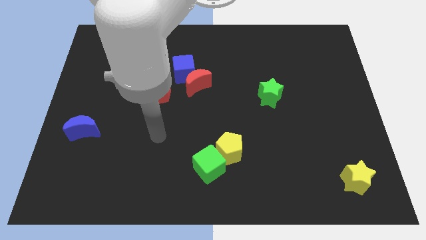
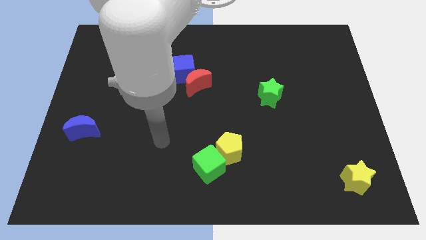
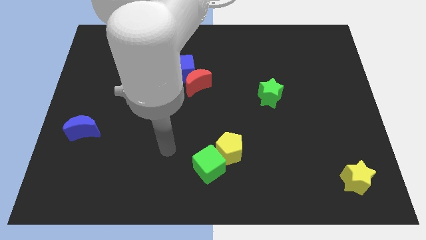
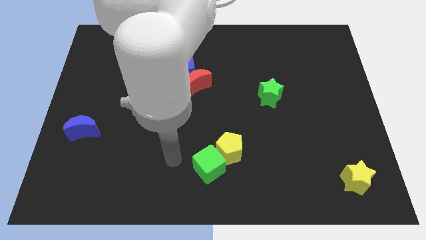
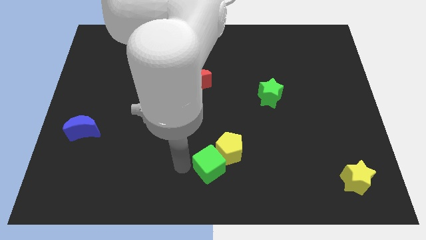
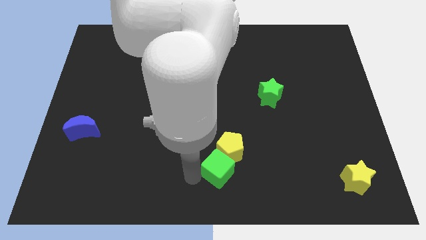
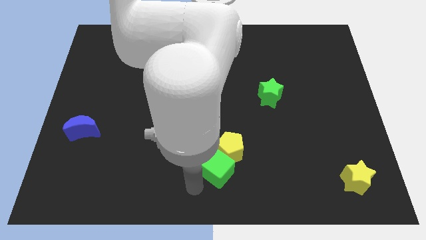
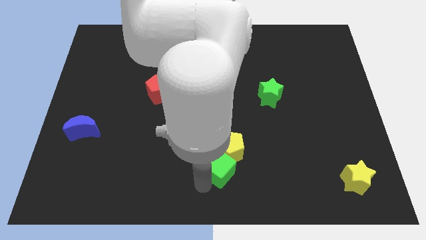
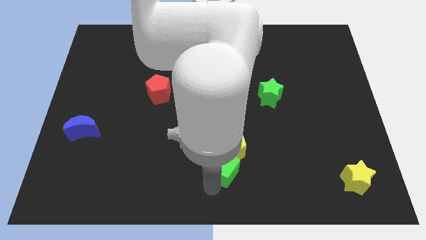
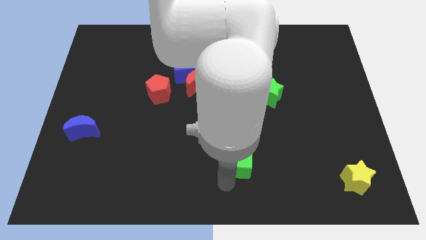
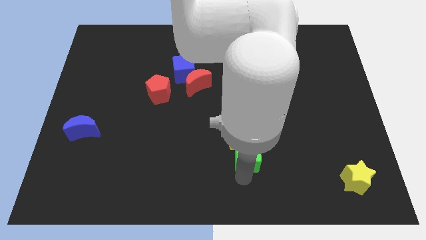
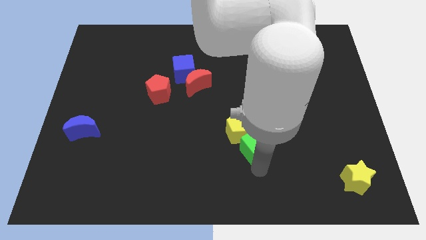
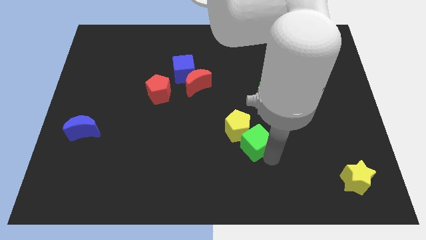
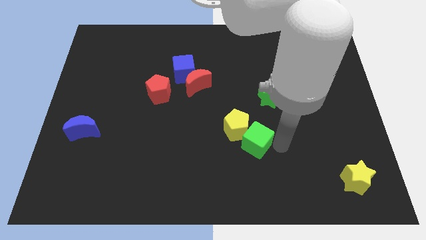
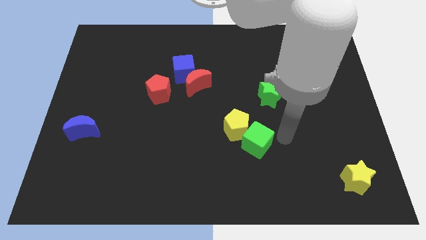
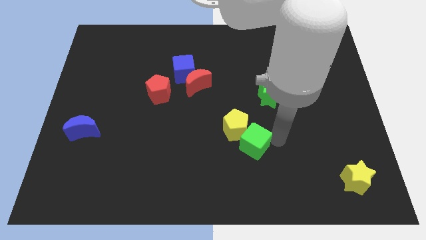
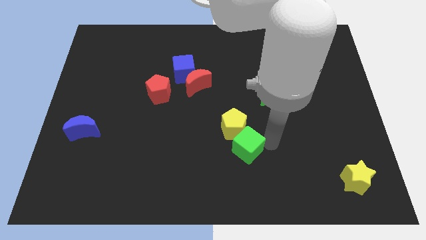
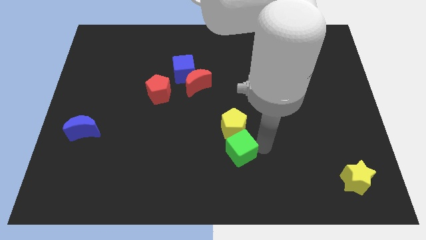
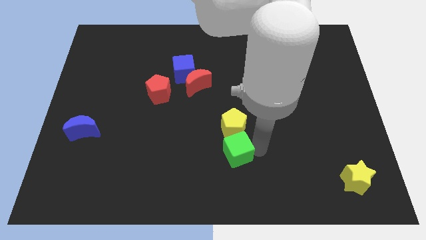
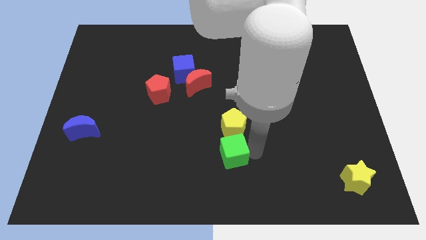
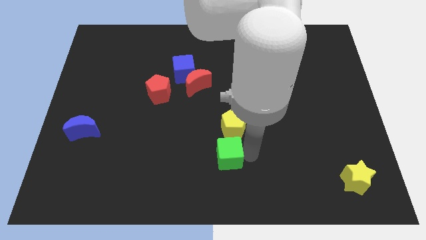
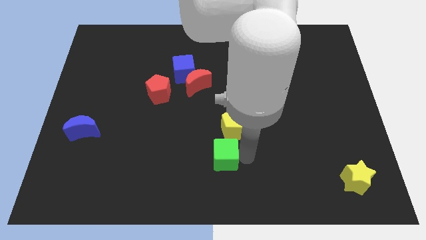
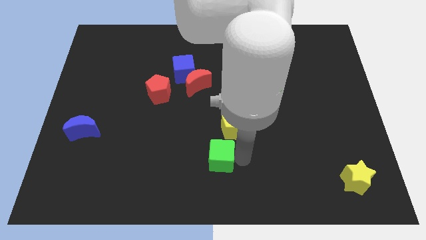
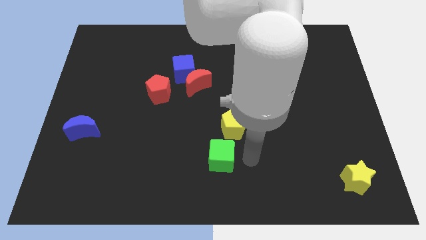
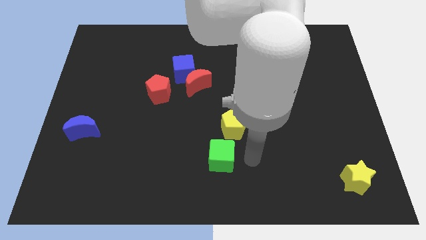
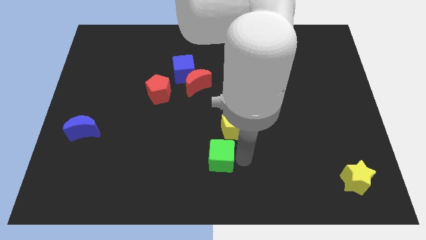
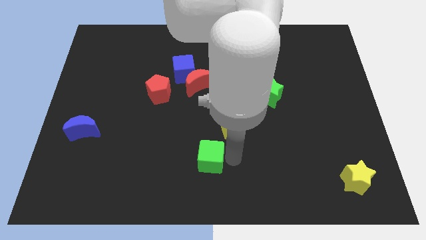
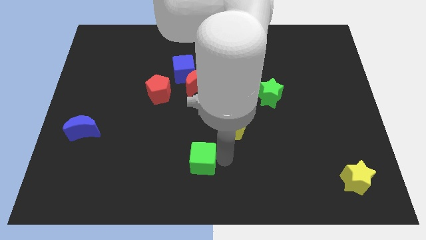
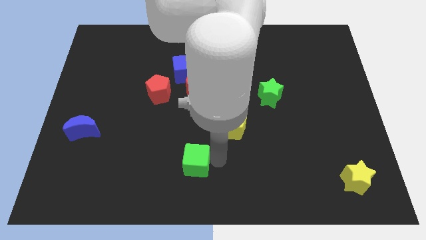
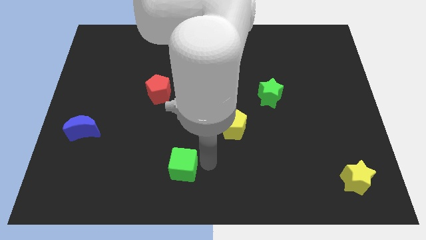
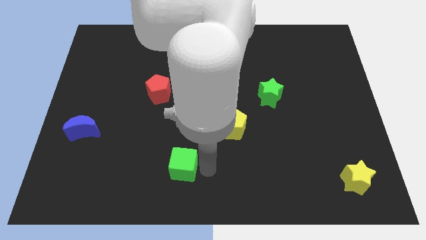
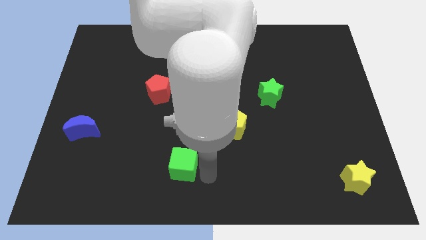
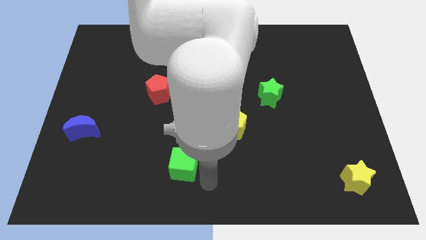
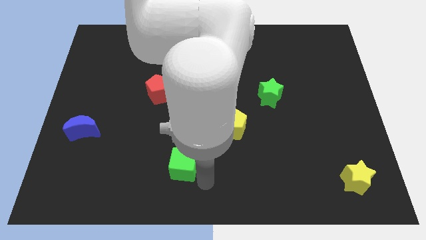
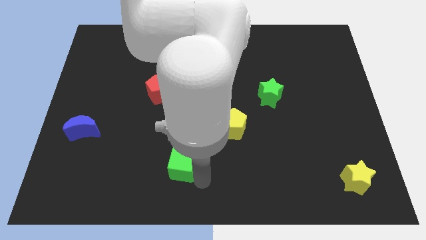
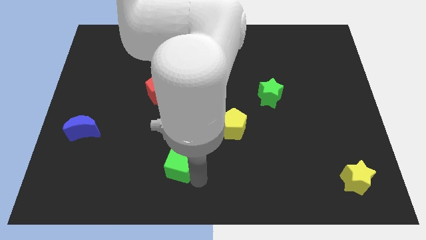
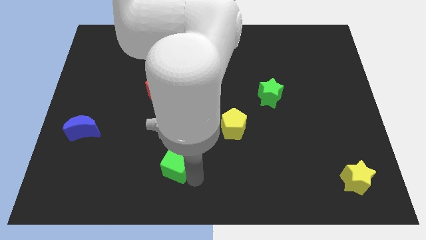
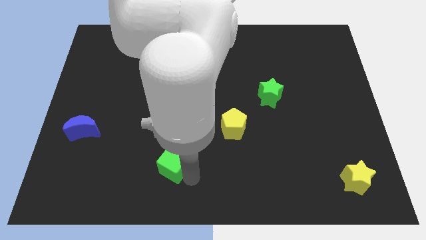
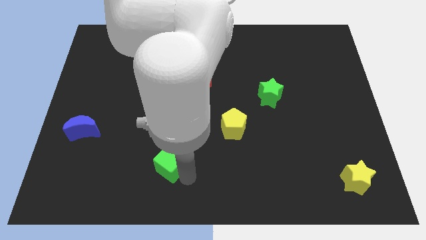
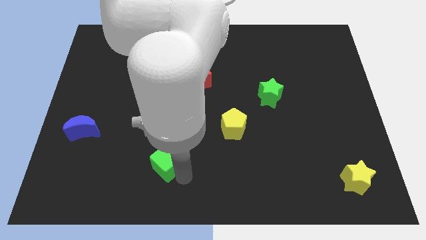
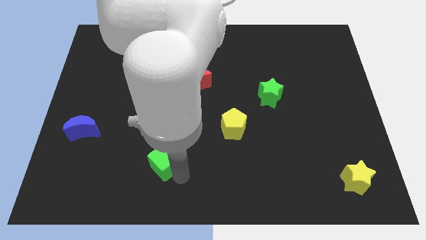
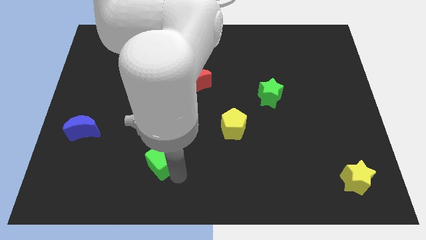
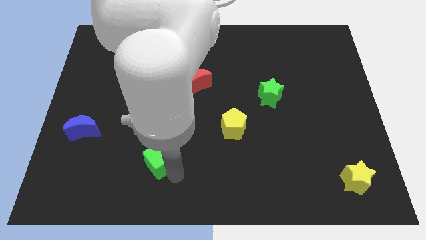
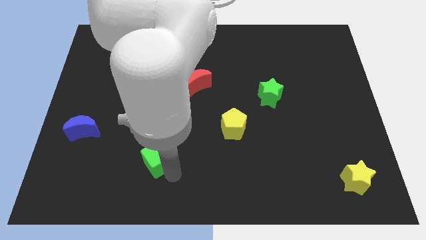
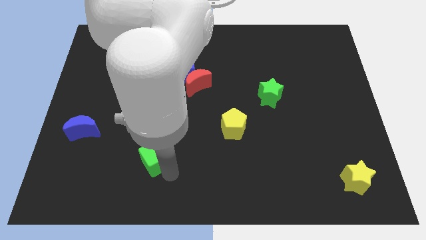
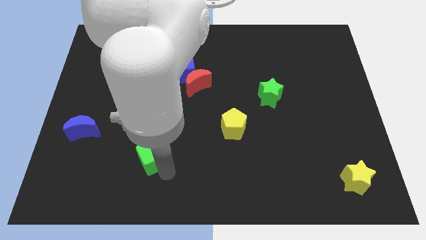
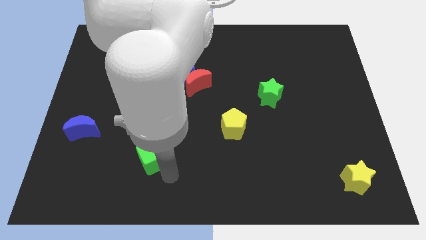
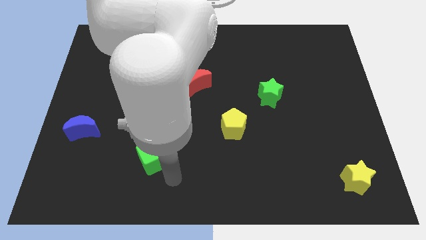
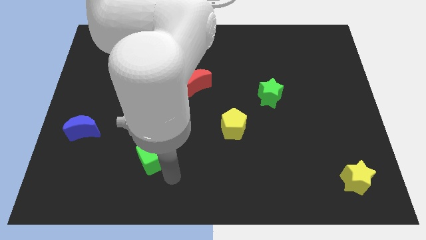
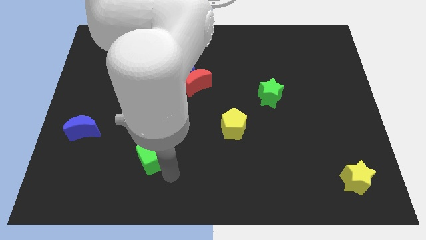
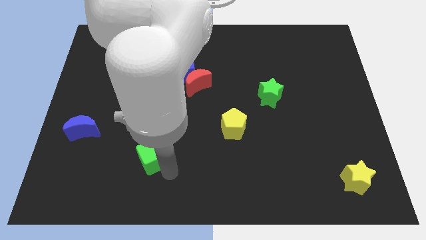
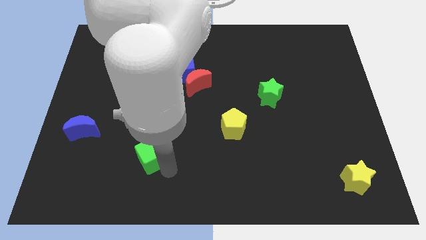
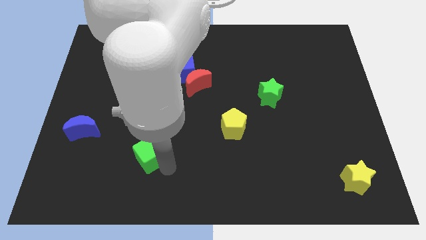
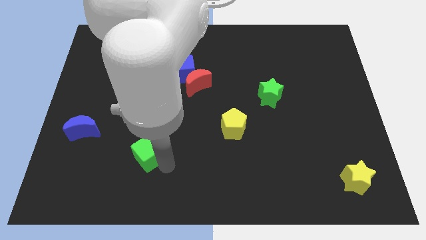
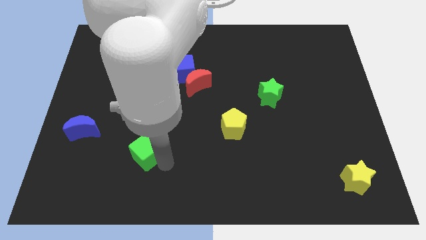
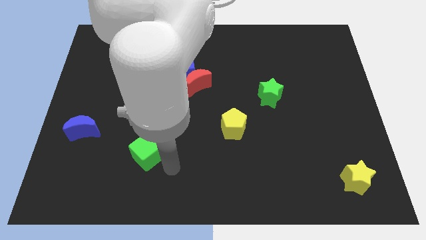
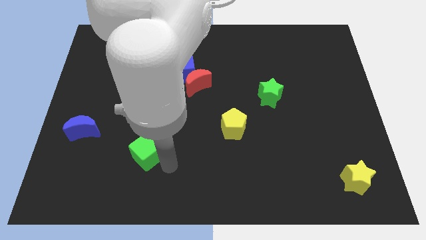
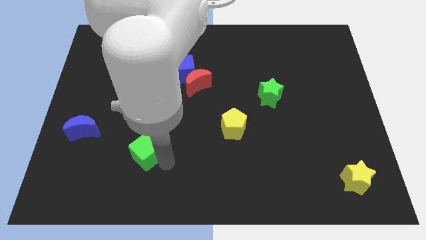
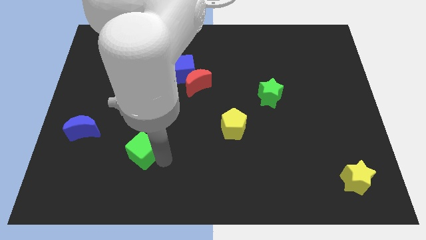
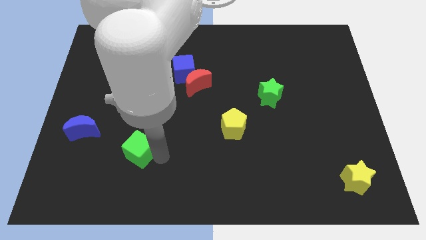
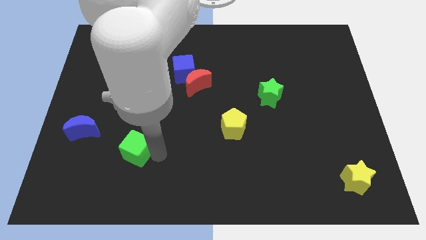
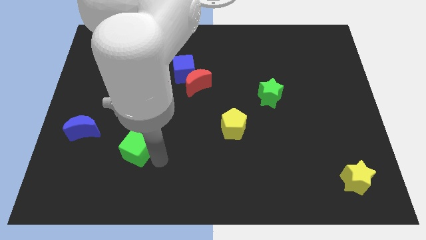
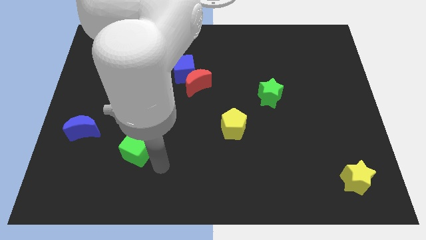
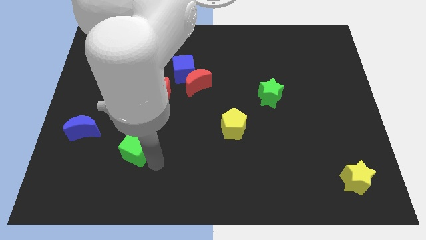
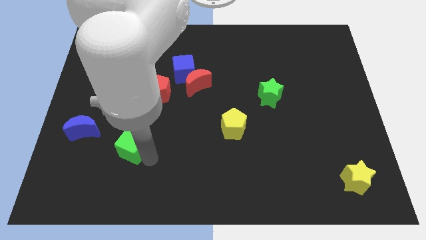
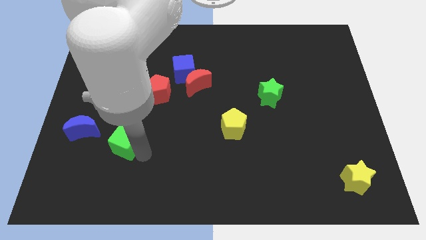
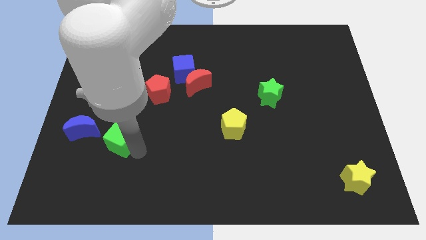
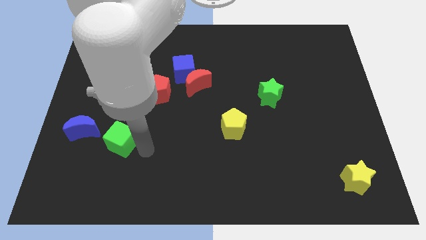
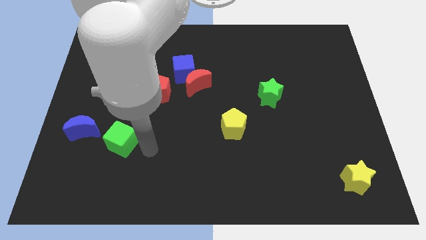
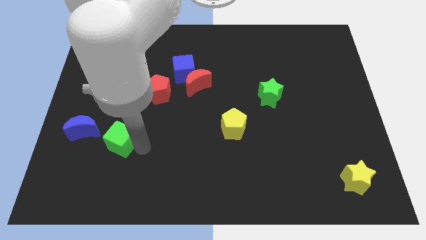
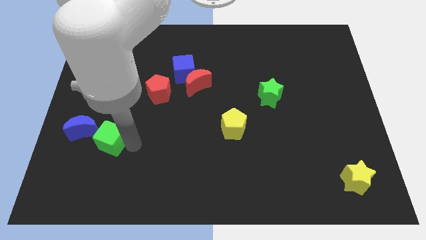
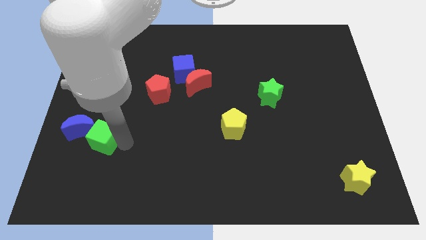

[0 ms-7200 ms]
put the green cube to the blue moon

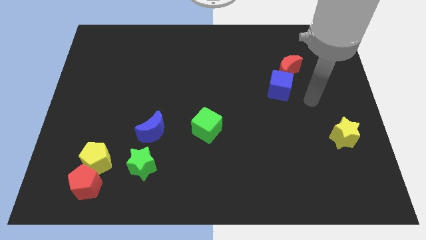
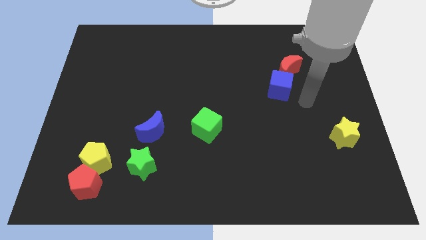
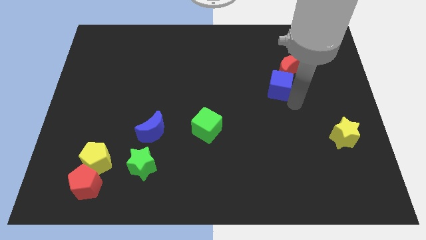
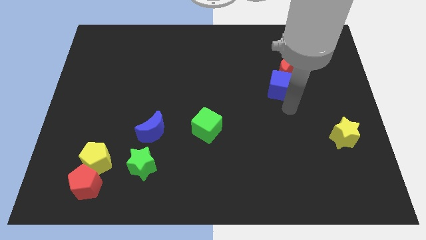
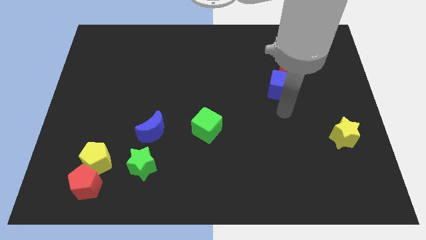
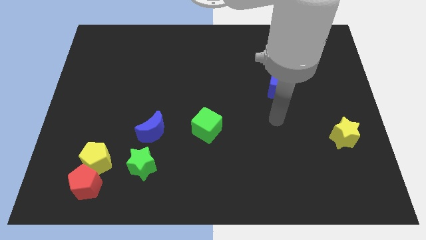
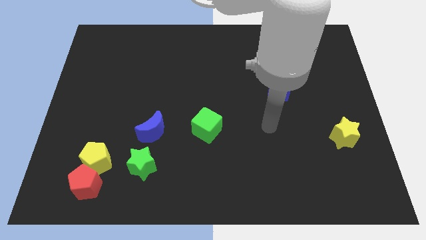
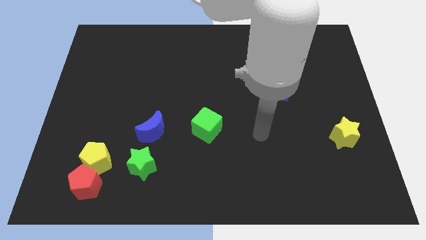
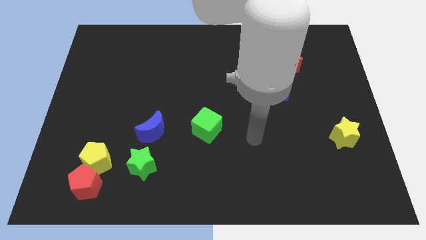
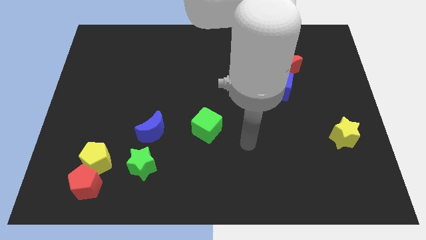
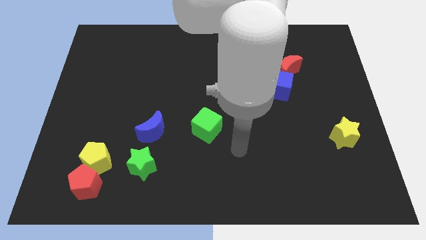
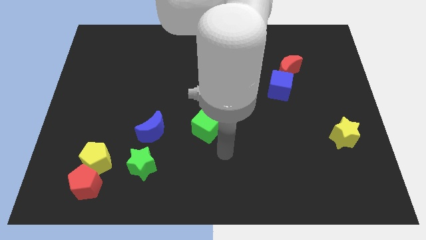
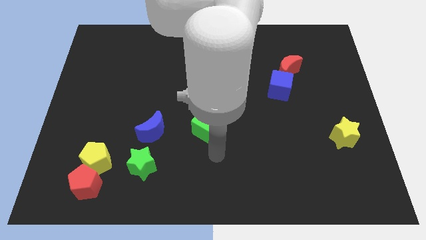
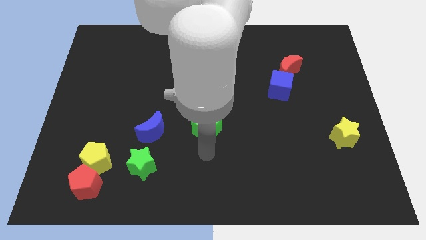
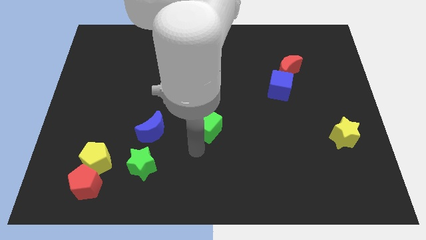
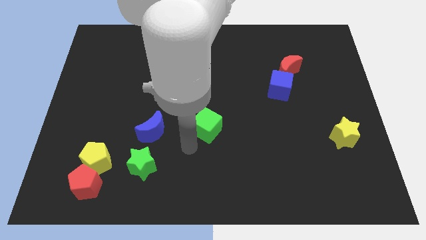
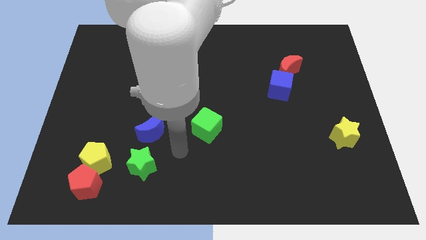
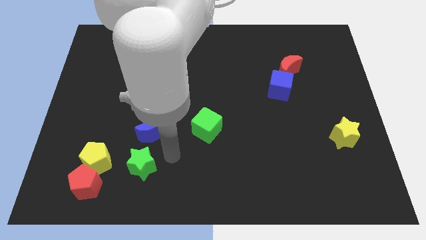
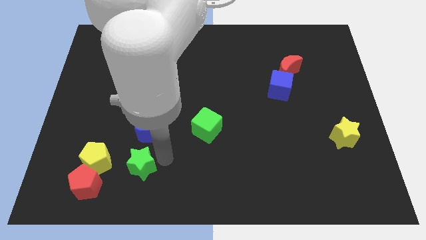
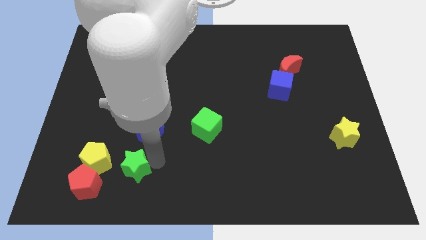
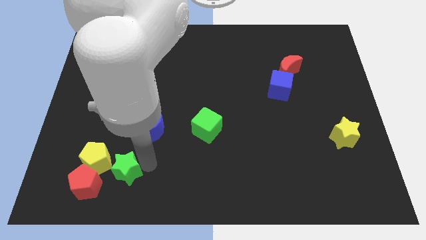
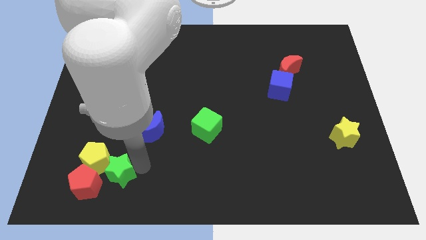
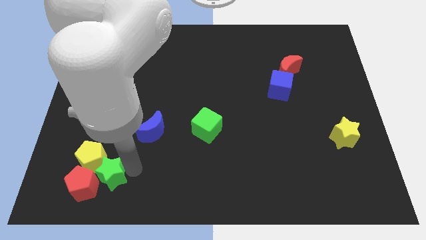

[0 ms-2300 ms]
push the green star close to the red pentagon
